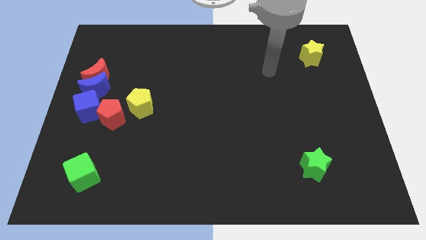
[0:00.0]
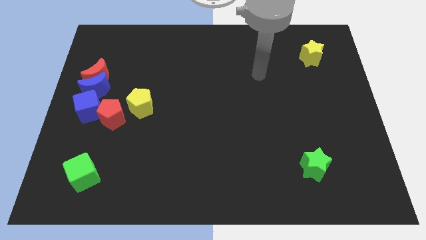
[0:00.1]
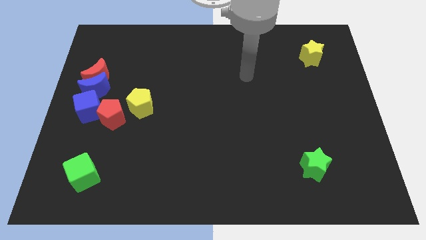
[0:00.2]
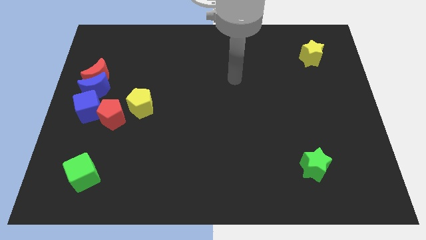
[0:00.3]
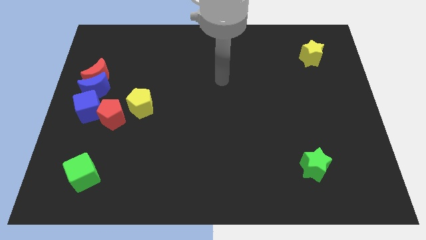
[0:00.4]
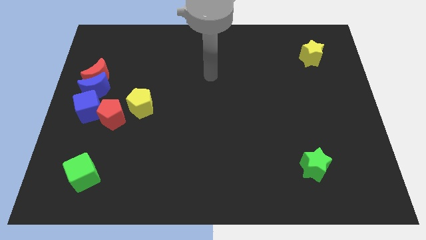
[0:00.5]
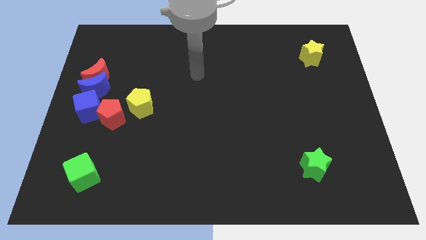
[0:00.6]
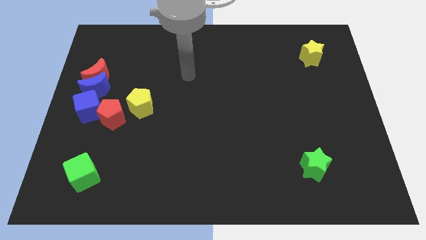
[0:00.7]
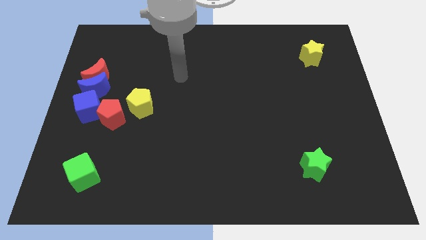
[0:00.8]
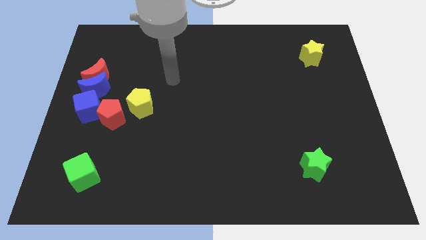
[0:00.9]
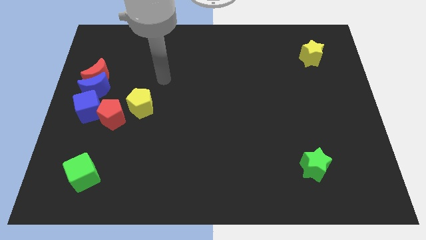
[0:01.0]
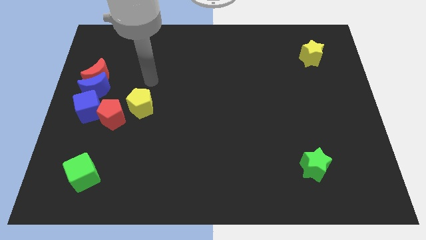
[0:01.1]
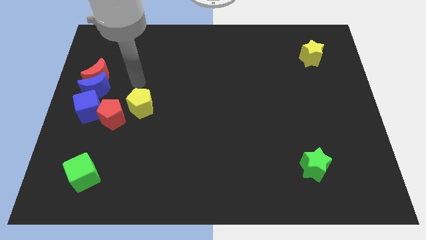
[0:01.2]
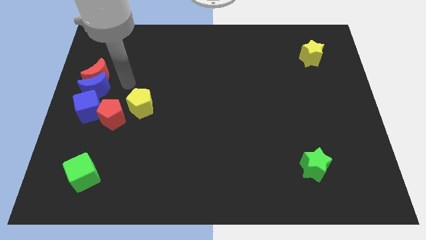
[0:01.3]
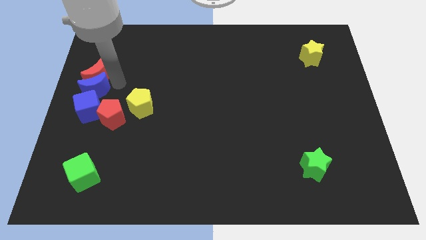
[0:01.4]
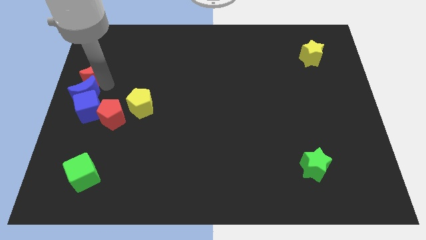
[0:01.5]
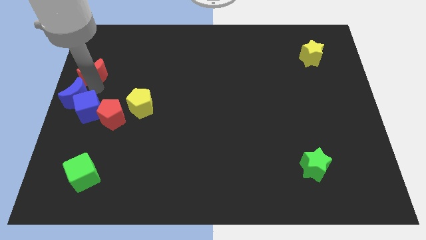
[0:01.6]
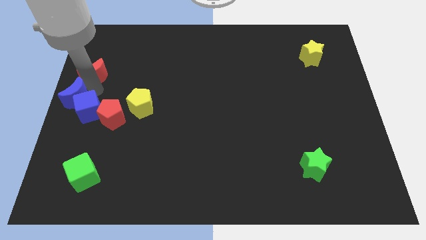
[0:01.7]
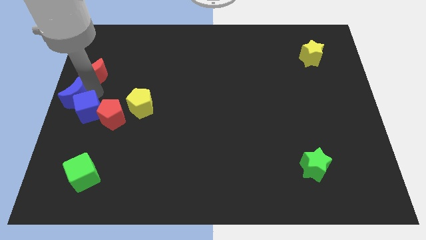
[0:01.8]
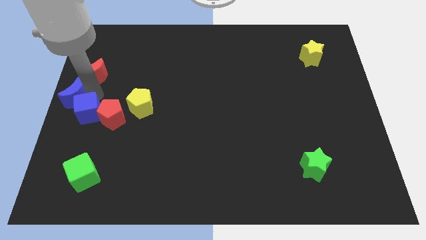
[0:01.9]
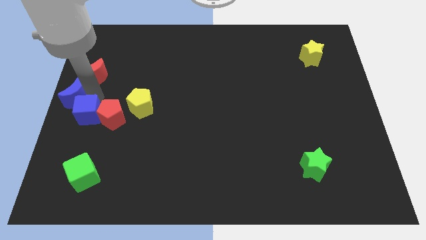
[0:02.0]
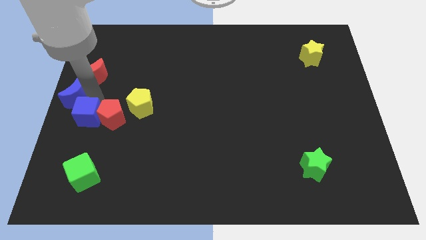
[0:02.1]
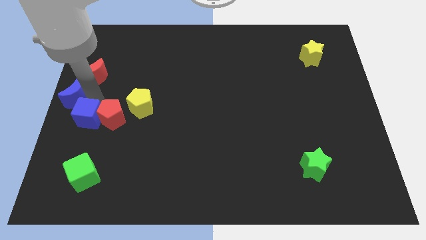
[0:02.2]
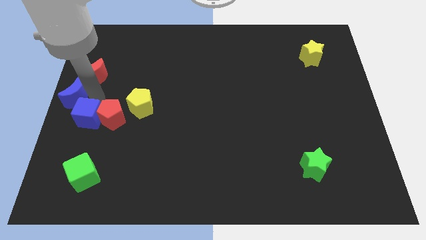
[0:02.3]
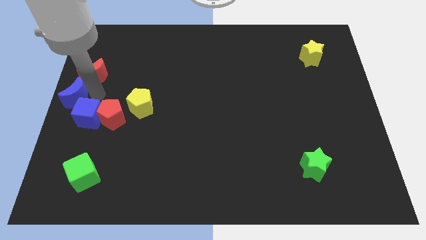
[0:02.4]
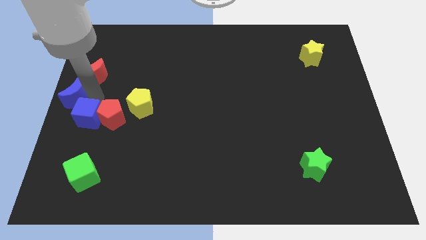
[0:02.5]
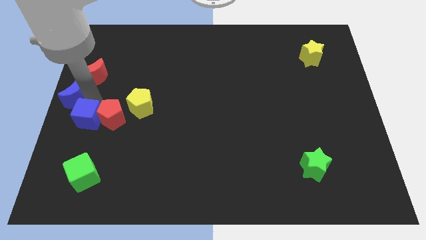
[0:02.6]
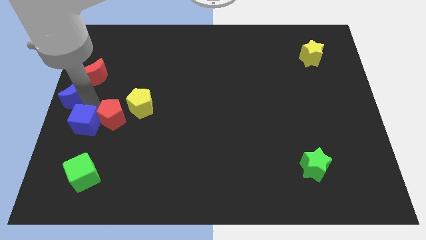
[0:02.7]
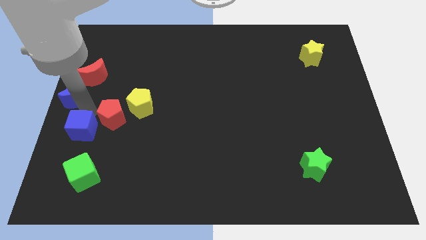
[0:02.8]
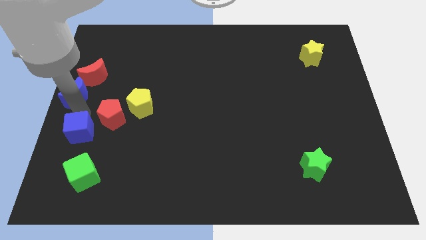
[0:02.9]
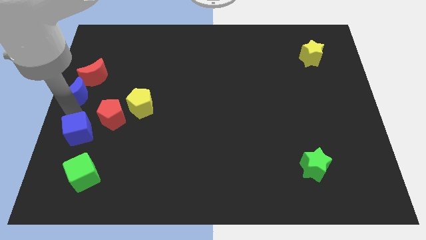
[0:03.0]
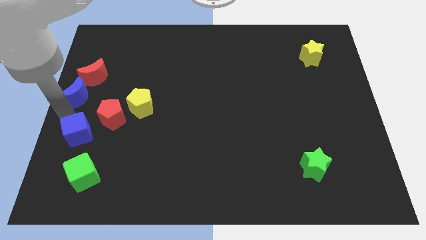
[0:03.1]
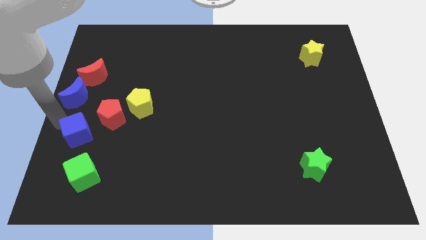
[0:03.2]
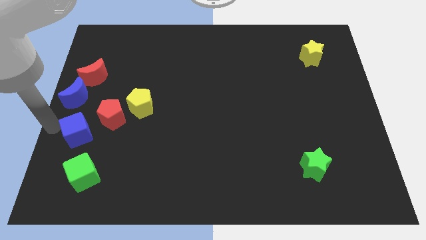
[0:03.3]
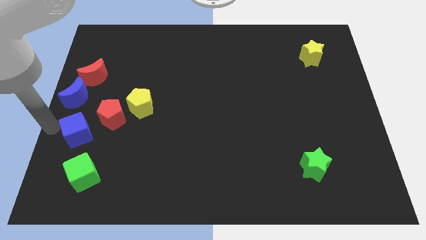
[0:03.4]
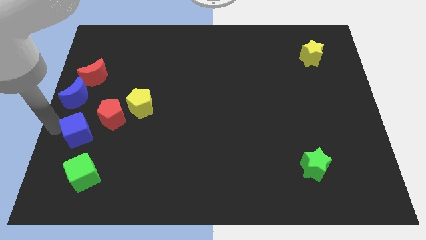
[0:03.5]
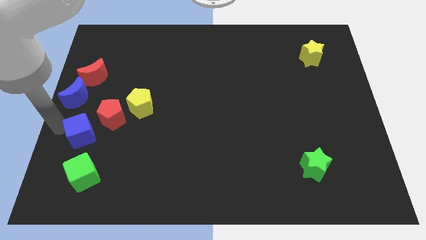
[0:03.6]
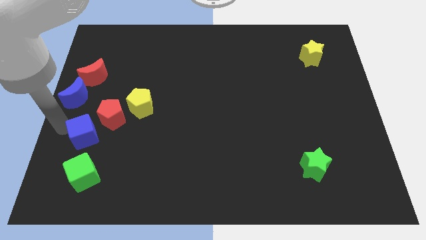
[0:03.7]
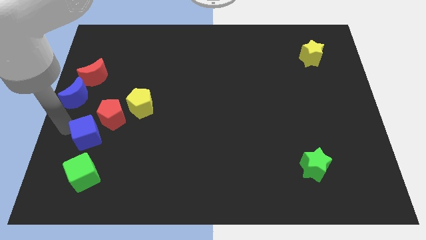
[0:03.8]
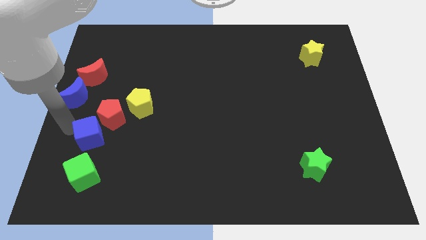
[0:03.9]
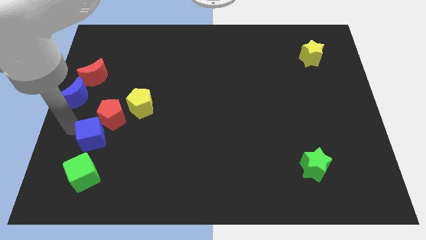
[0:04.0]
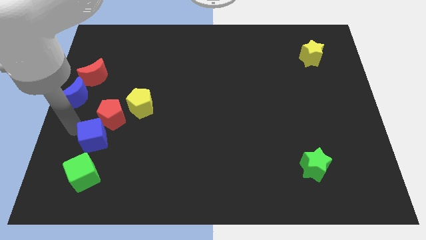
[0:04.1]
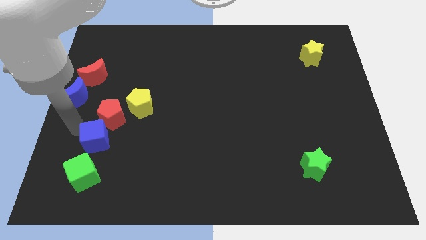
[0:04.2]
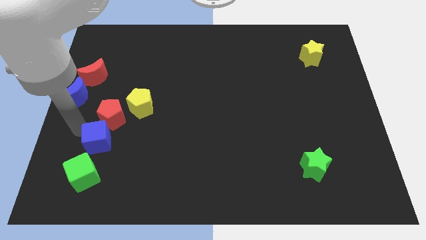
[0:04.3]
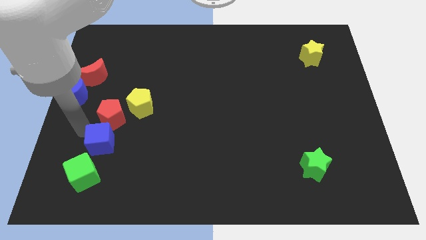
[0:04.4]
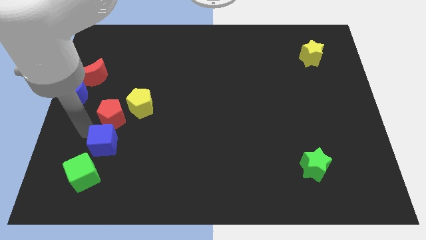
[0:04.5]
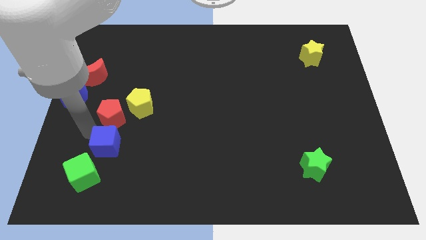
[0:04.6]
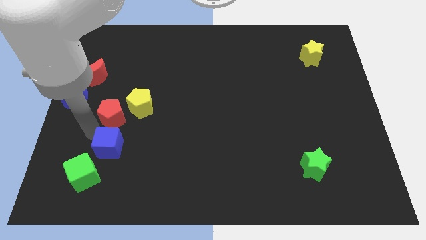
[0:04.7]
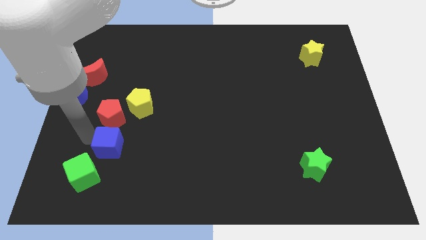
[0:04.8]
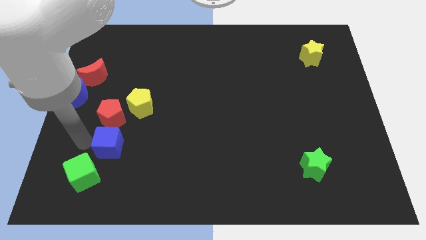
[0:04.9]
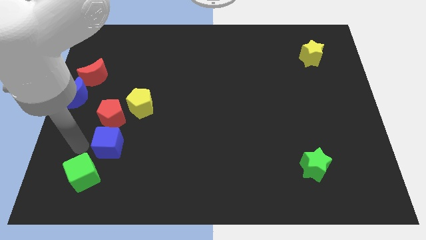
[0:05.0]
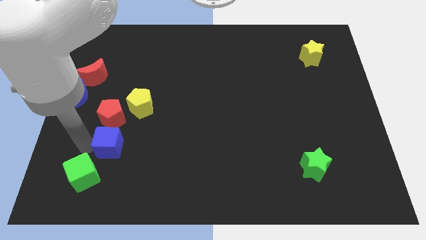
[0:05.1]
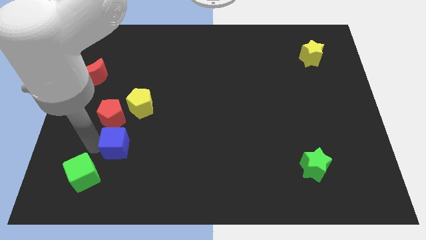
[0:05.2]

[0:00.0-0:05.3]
put the blue cube to the bottom of the yellow pentagon

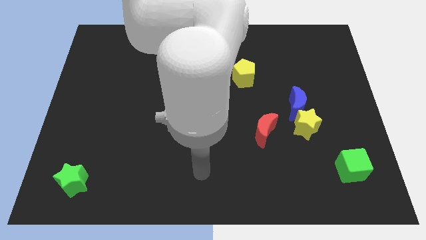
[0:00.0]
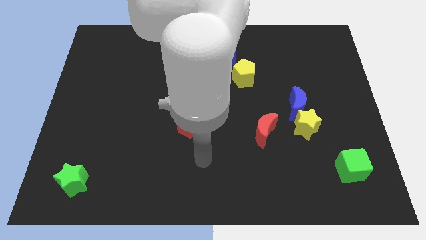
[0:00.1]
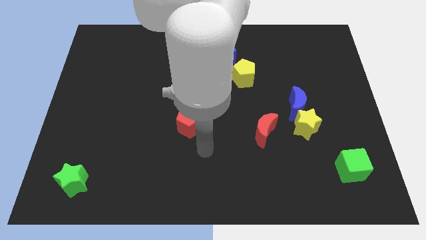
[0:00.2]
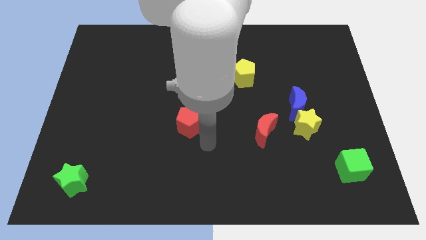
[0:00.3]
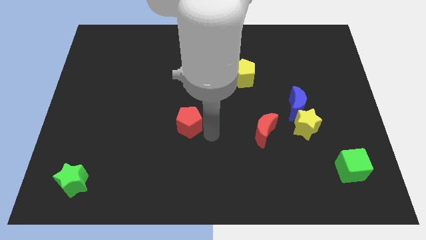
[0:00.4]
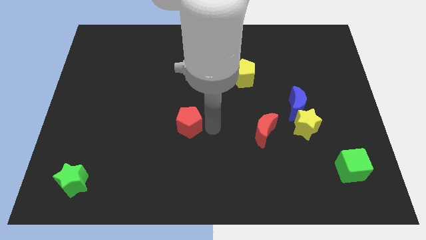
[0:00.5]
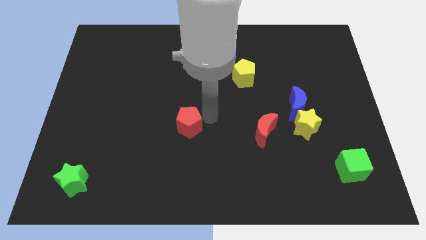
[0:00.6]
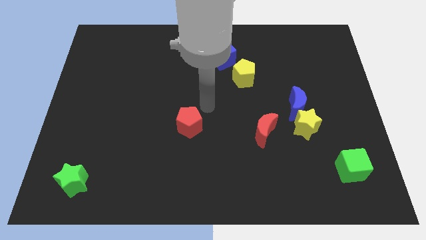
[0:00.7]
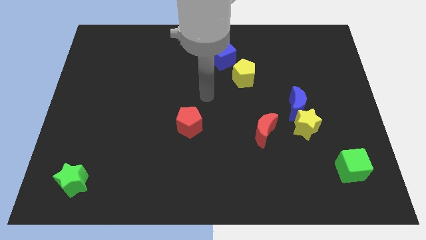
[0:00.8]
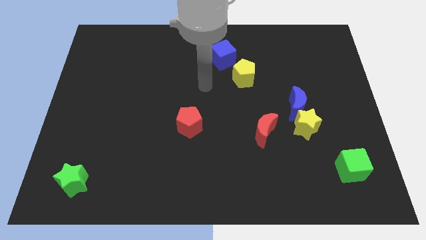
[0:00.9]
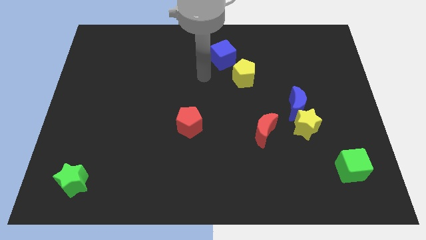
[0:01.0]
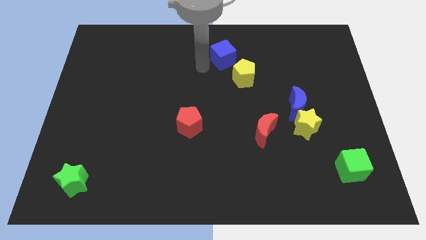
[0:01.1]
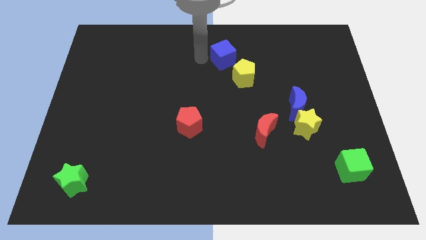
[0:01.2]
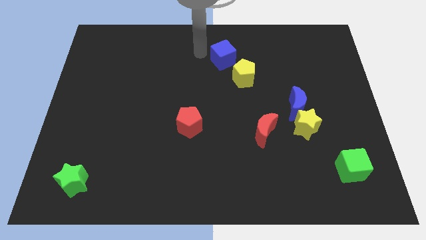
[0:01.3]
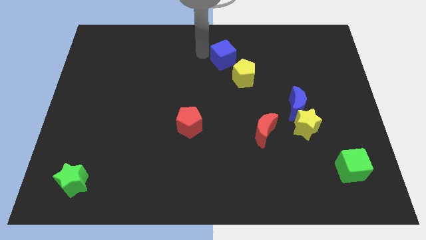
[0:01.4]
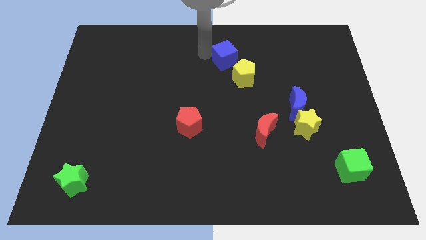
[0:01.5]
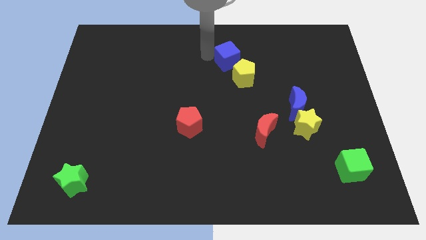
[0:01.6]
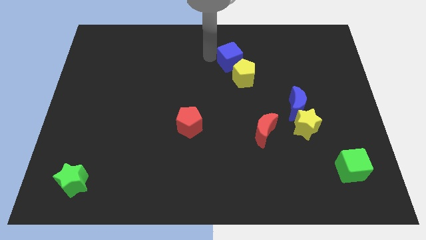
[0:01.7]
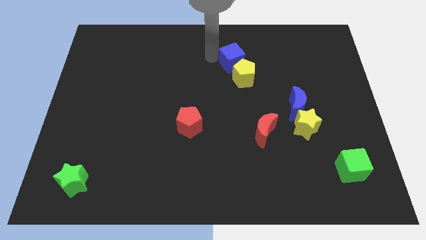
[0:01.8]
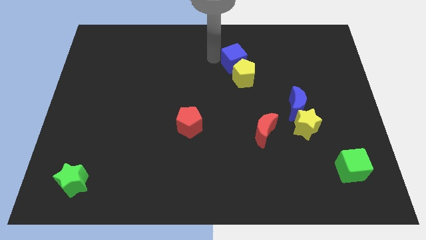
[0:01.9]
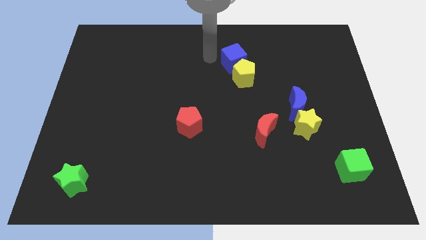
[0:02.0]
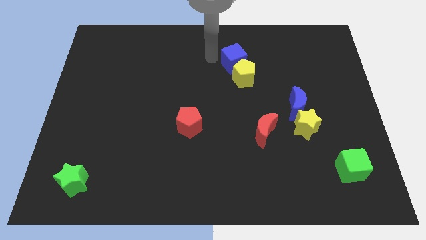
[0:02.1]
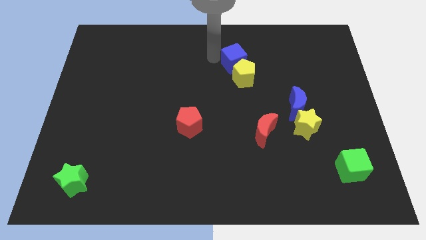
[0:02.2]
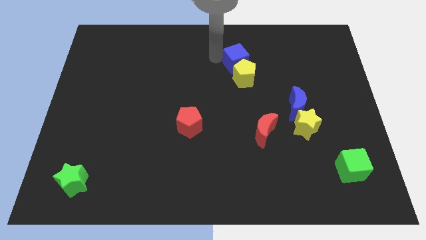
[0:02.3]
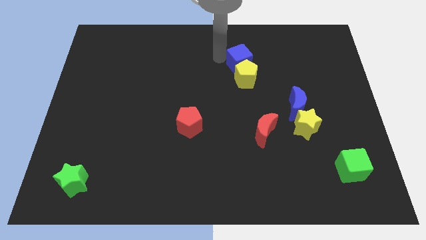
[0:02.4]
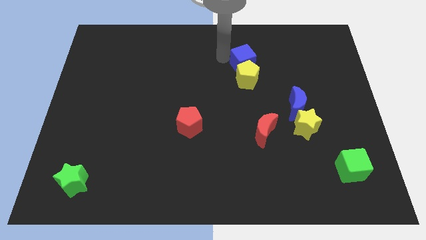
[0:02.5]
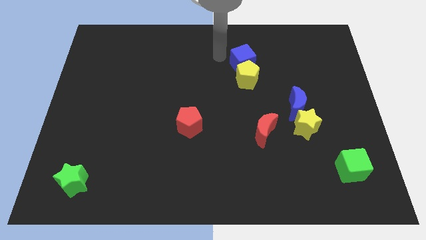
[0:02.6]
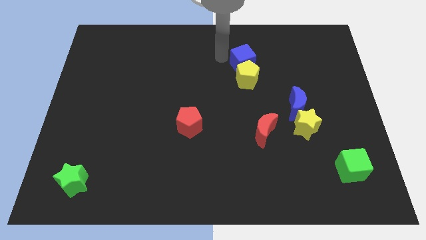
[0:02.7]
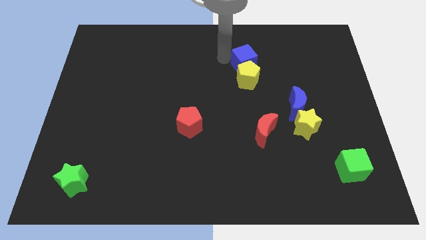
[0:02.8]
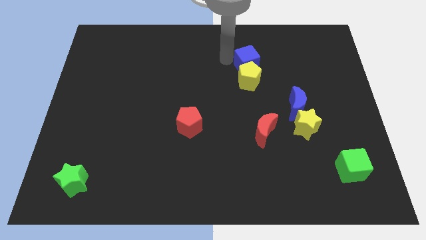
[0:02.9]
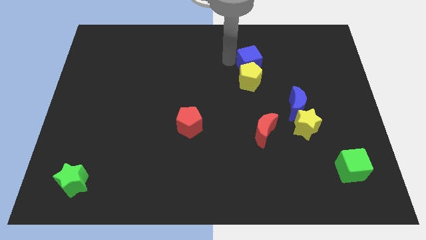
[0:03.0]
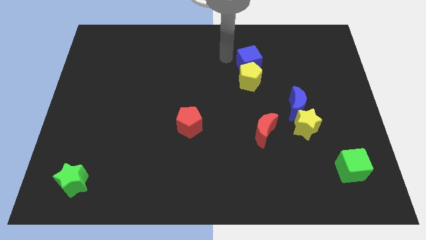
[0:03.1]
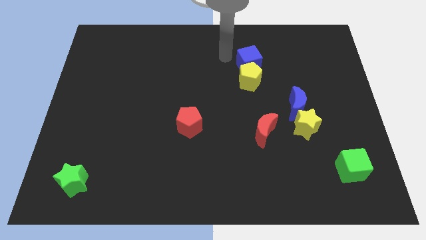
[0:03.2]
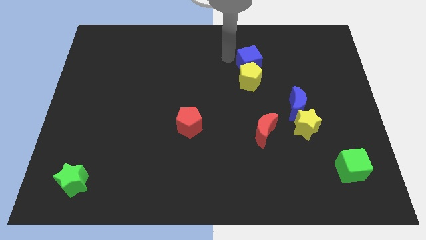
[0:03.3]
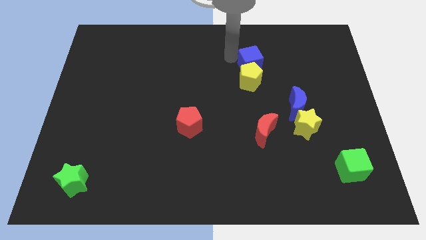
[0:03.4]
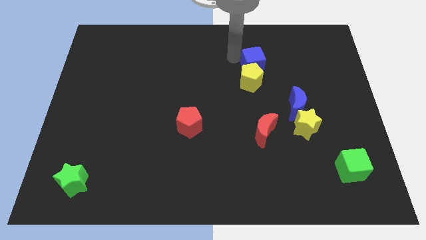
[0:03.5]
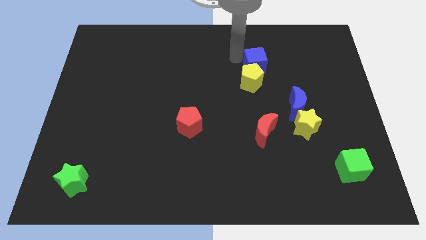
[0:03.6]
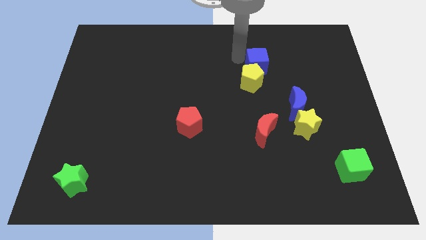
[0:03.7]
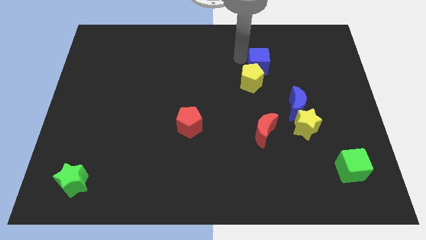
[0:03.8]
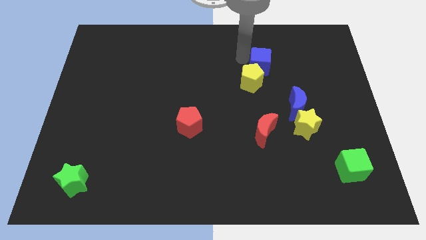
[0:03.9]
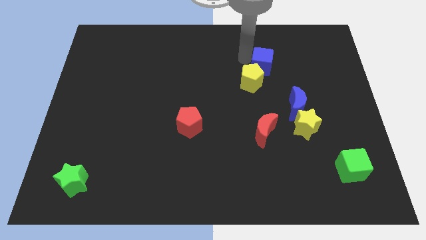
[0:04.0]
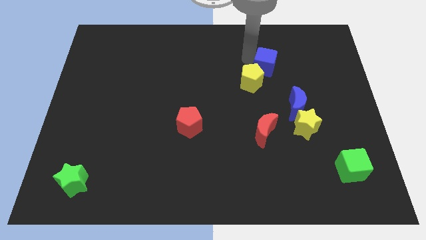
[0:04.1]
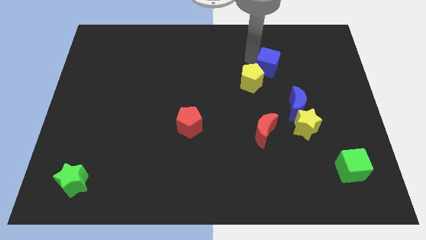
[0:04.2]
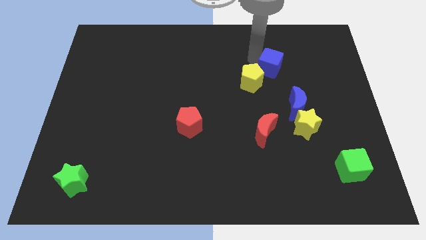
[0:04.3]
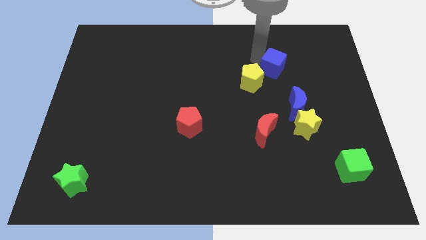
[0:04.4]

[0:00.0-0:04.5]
slide the blue cube to the top of the blue moon
